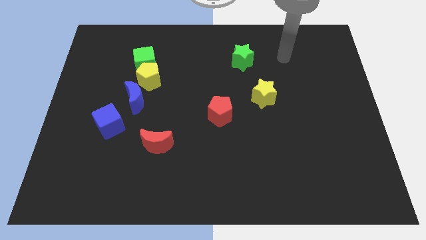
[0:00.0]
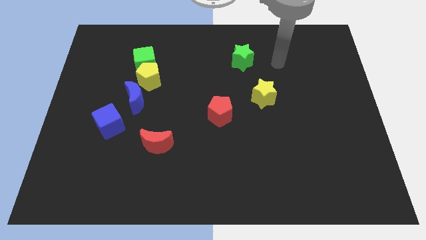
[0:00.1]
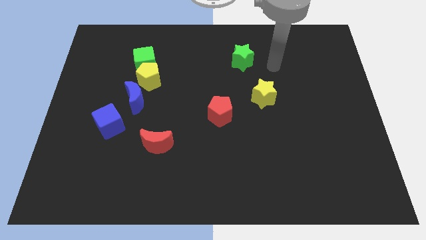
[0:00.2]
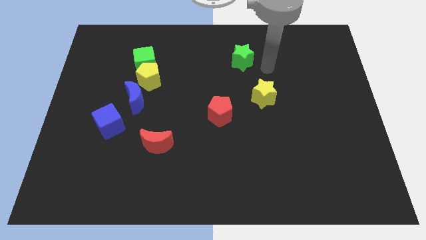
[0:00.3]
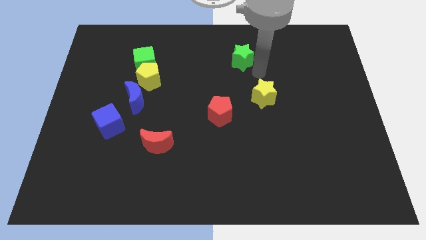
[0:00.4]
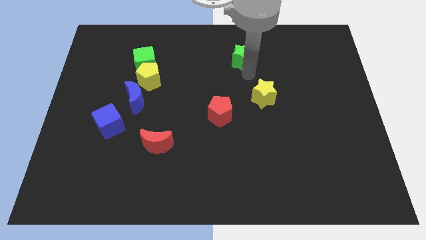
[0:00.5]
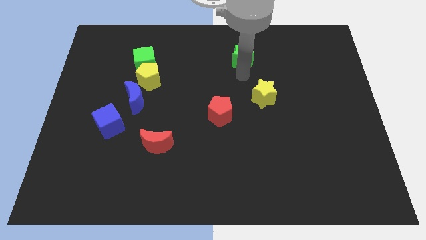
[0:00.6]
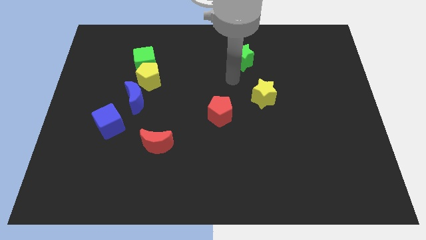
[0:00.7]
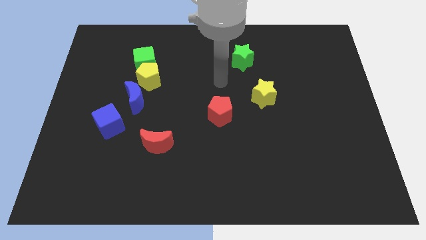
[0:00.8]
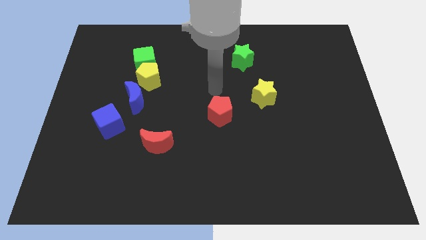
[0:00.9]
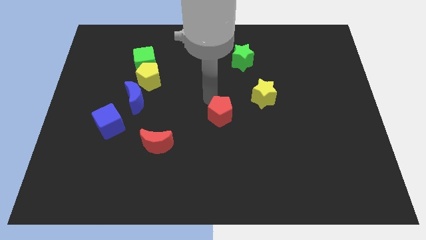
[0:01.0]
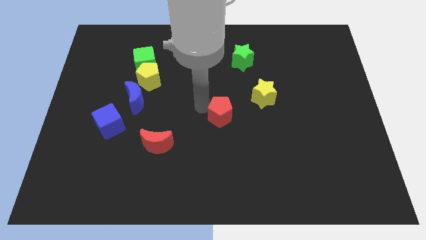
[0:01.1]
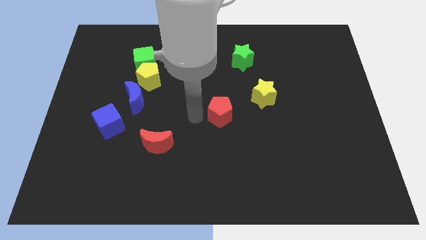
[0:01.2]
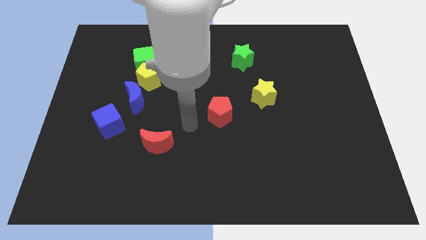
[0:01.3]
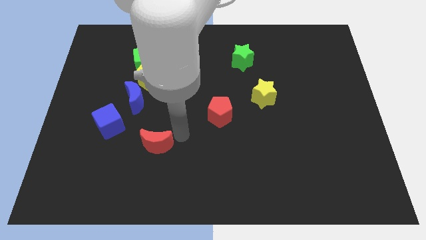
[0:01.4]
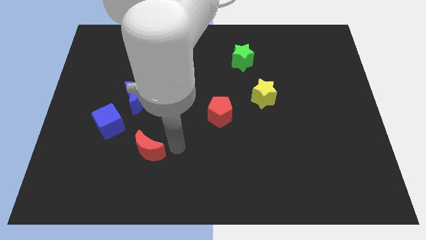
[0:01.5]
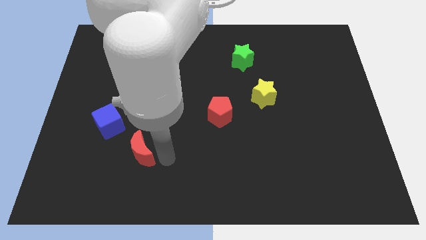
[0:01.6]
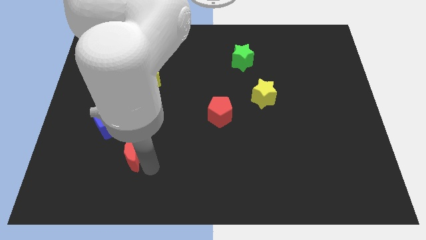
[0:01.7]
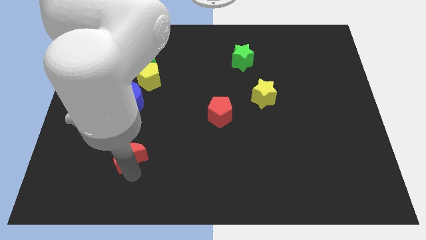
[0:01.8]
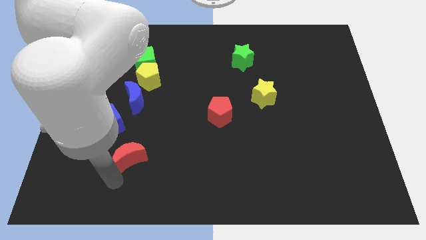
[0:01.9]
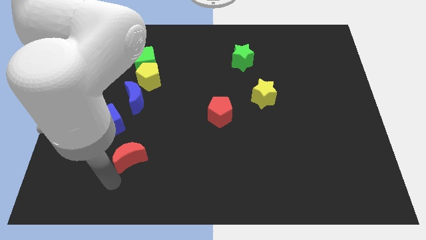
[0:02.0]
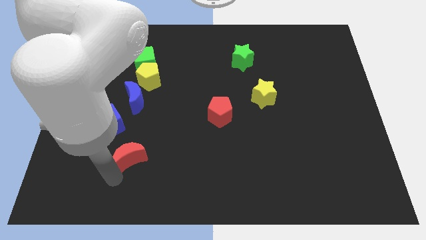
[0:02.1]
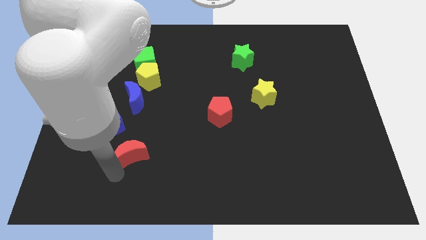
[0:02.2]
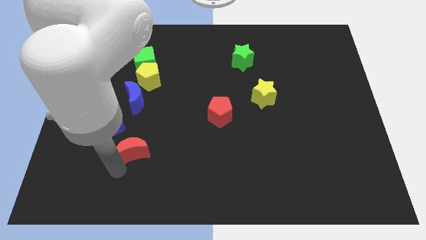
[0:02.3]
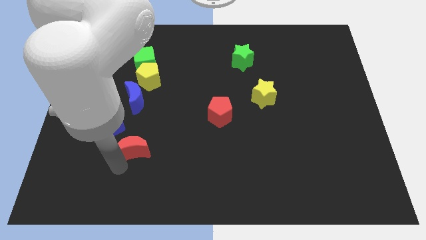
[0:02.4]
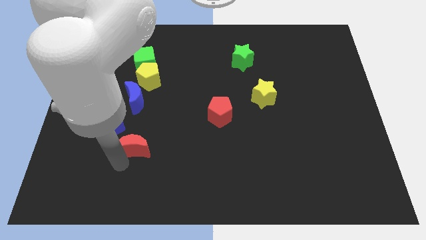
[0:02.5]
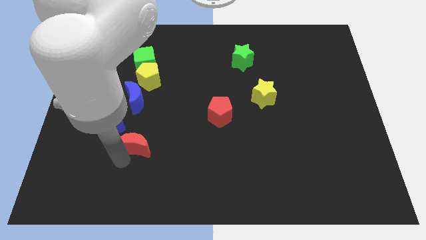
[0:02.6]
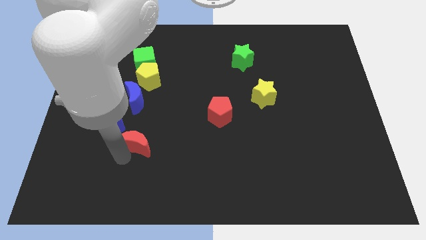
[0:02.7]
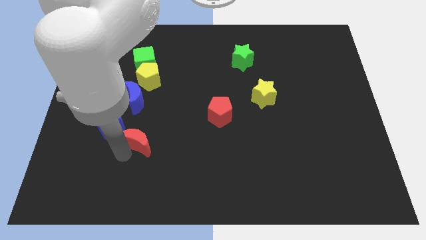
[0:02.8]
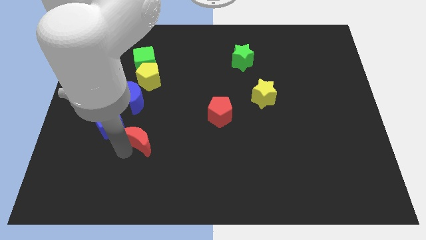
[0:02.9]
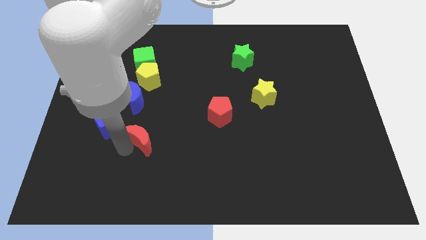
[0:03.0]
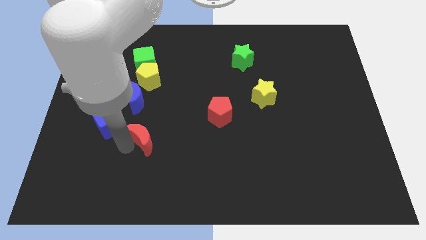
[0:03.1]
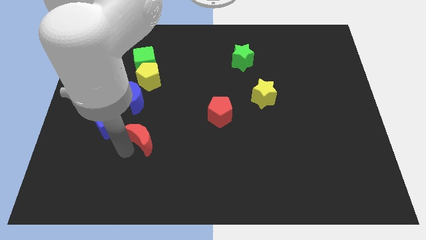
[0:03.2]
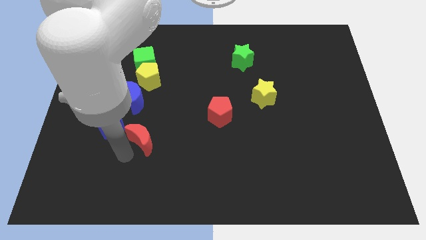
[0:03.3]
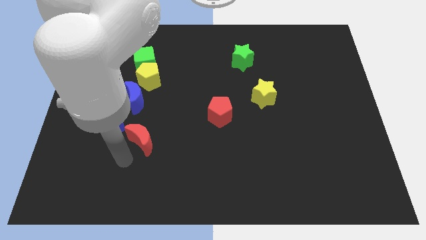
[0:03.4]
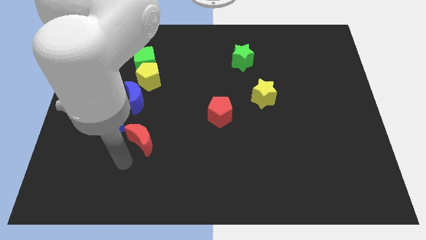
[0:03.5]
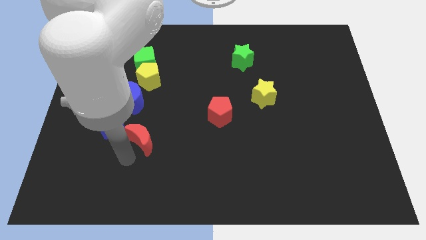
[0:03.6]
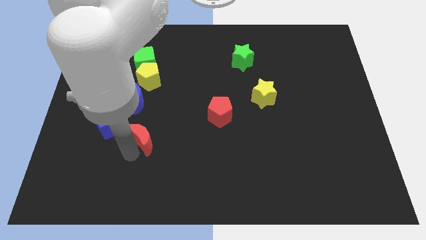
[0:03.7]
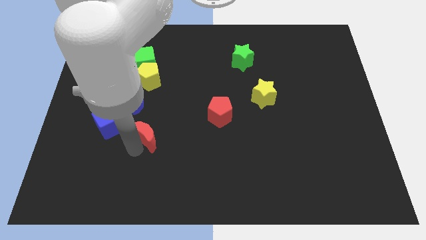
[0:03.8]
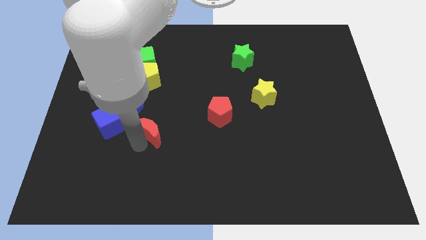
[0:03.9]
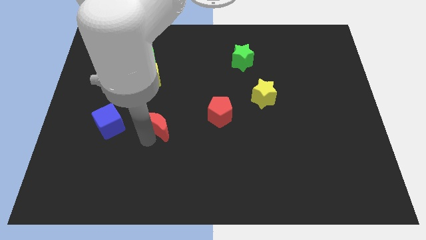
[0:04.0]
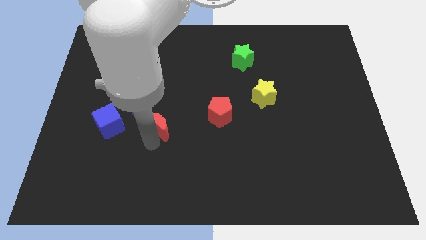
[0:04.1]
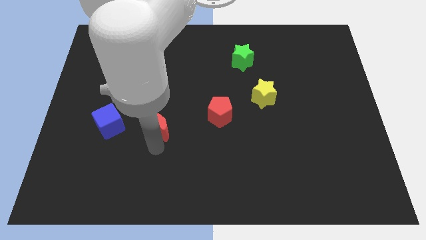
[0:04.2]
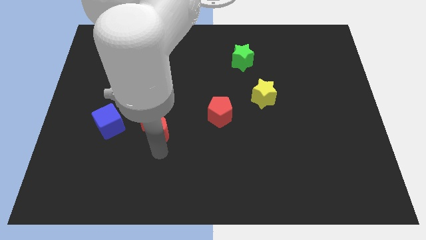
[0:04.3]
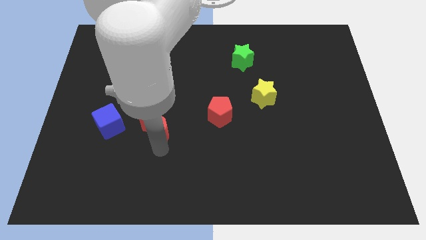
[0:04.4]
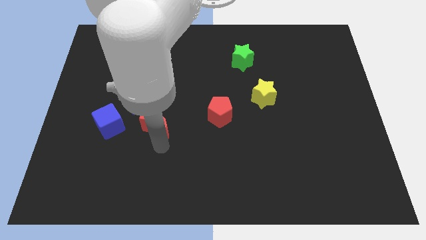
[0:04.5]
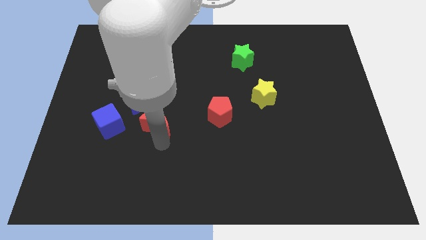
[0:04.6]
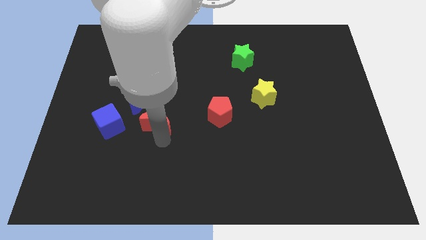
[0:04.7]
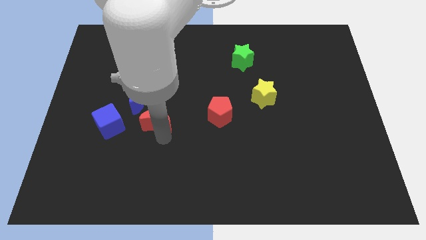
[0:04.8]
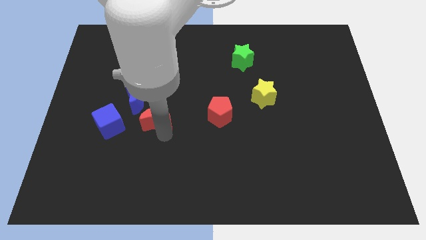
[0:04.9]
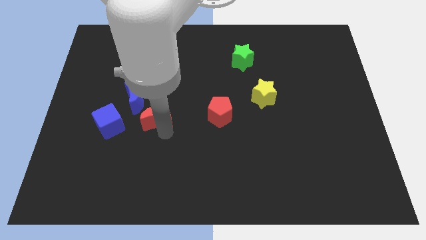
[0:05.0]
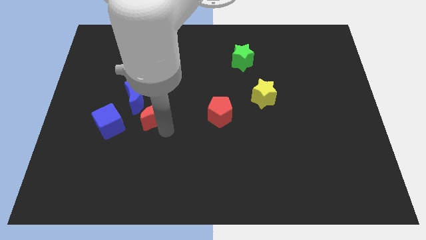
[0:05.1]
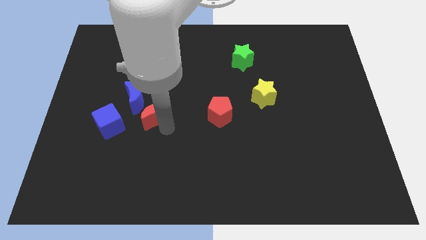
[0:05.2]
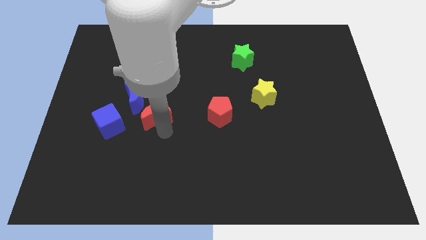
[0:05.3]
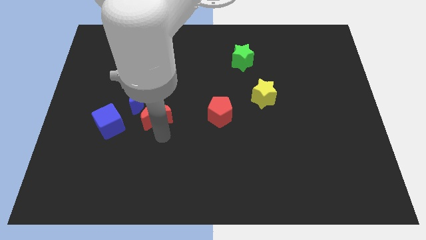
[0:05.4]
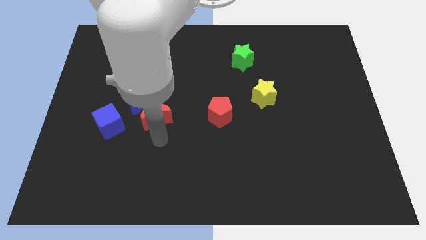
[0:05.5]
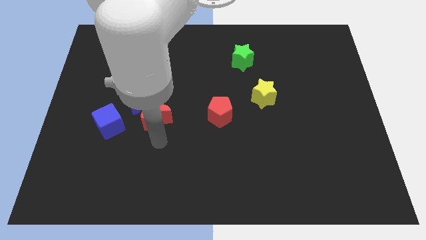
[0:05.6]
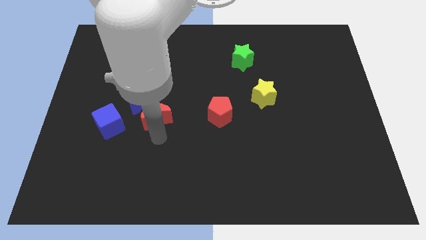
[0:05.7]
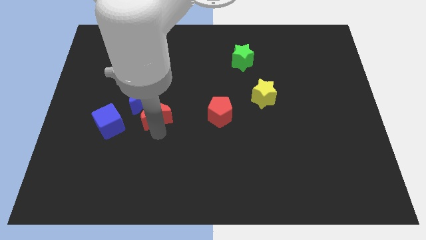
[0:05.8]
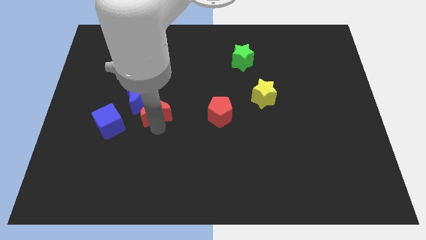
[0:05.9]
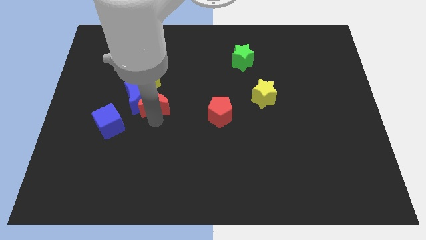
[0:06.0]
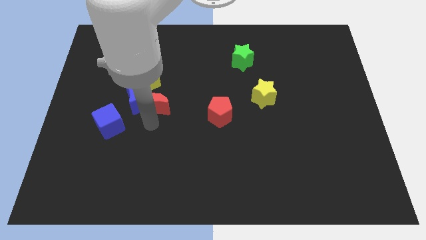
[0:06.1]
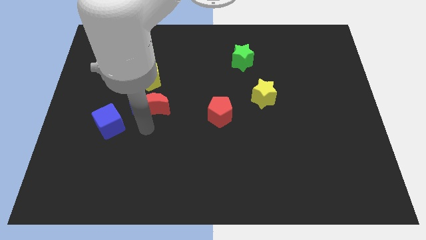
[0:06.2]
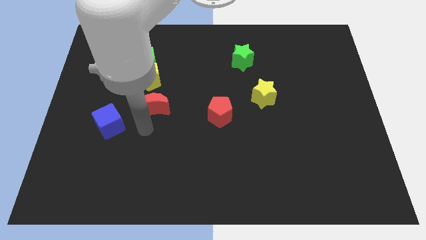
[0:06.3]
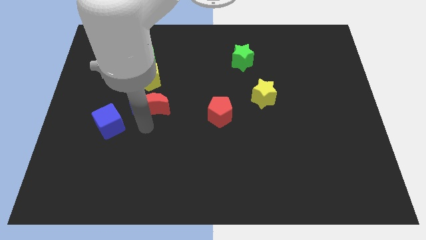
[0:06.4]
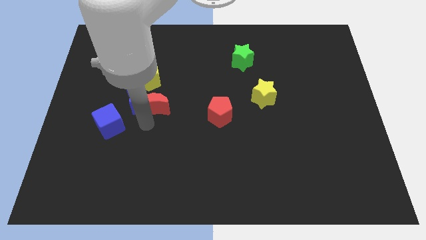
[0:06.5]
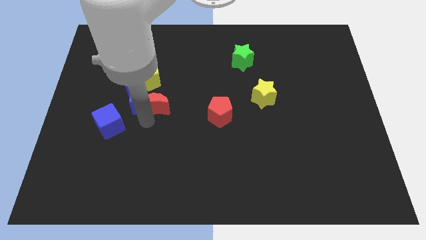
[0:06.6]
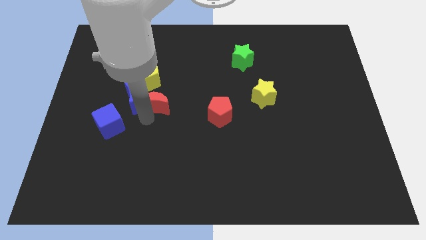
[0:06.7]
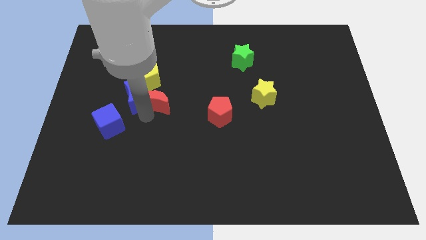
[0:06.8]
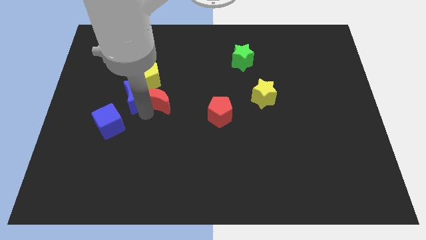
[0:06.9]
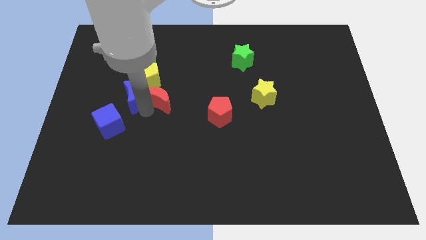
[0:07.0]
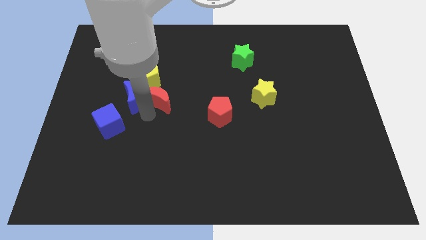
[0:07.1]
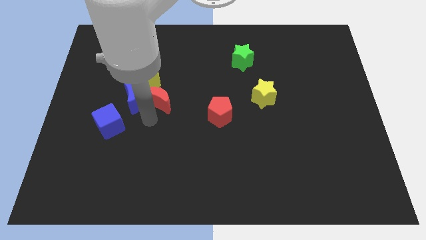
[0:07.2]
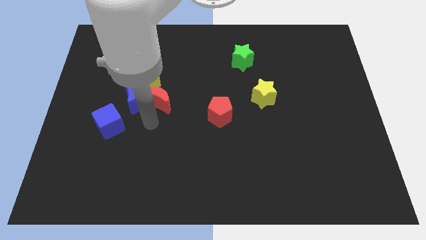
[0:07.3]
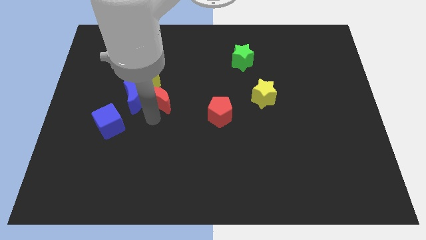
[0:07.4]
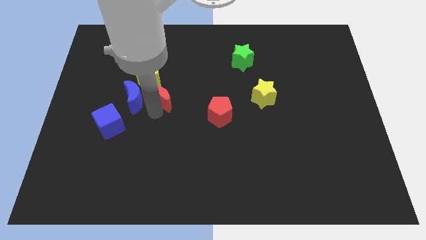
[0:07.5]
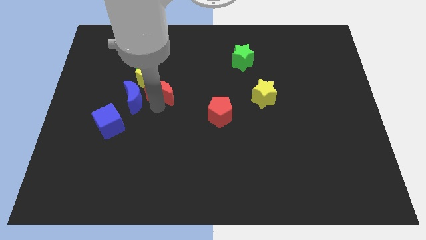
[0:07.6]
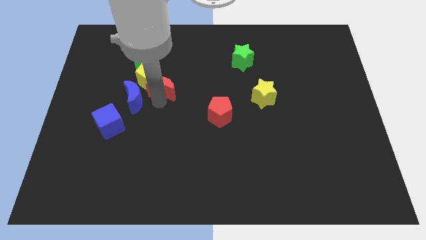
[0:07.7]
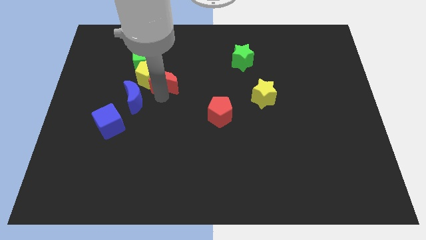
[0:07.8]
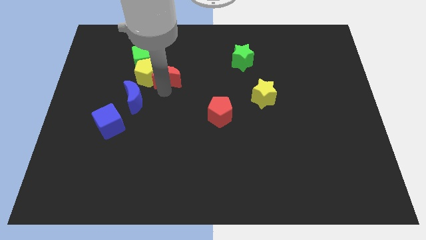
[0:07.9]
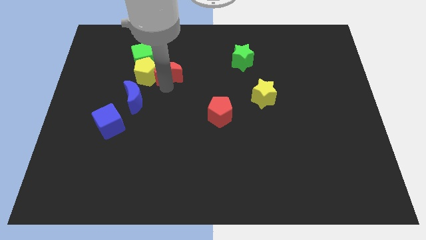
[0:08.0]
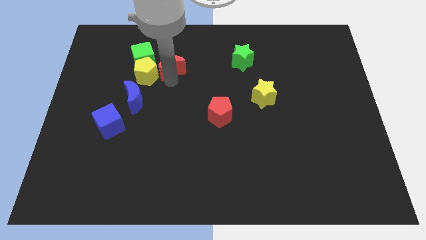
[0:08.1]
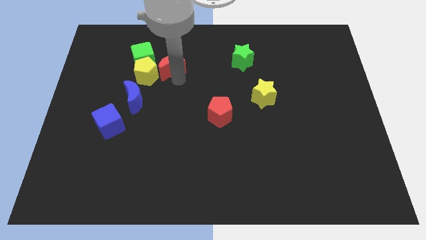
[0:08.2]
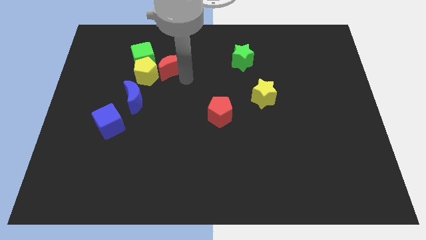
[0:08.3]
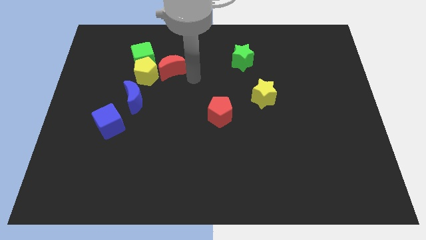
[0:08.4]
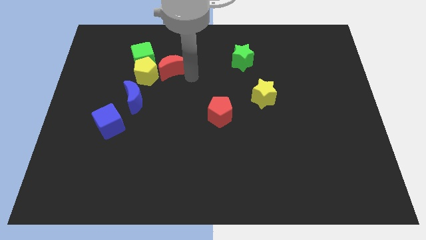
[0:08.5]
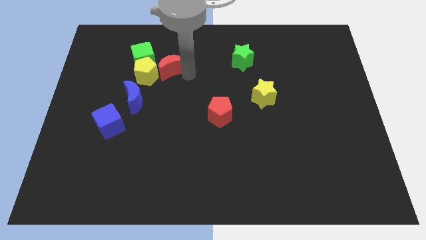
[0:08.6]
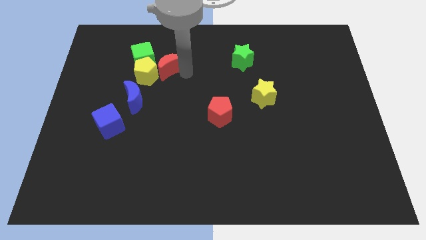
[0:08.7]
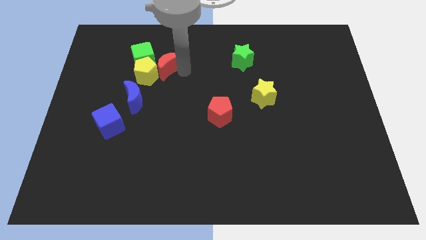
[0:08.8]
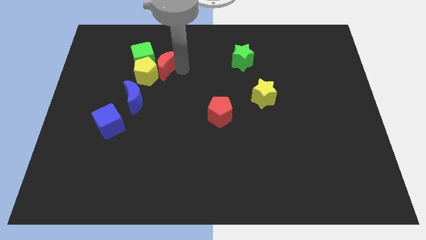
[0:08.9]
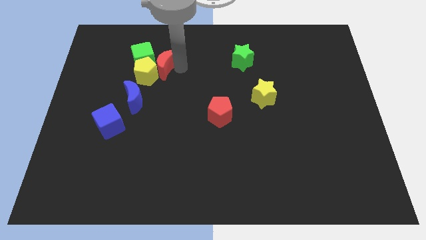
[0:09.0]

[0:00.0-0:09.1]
move the red moon next to the green cube
